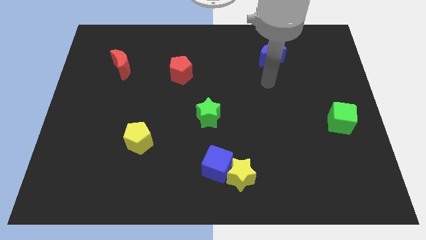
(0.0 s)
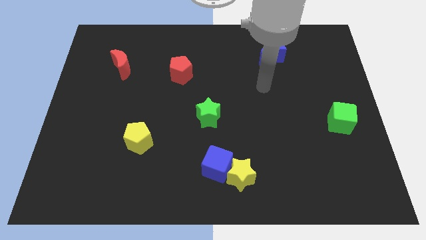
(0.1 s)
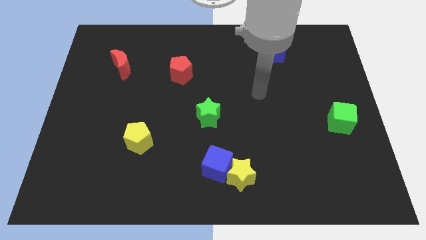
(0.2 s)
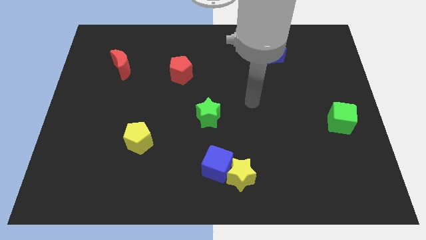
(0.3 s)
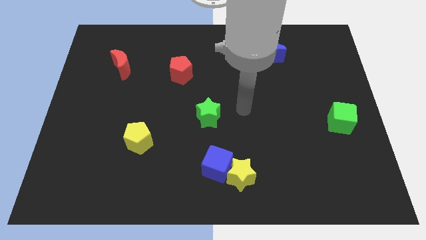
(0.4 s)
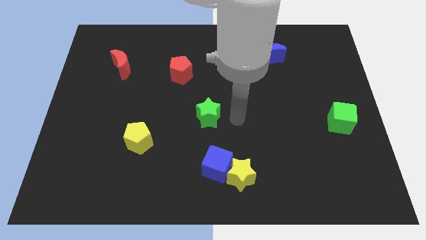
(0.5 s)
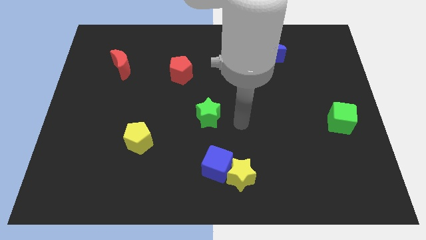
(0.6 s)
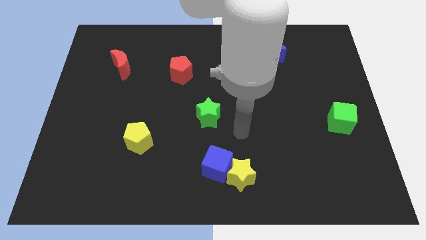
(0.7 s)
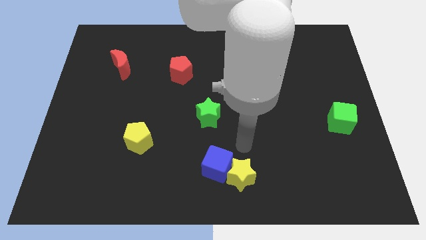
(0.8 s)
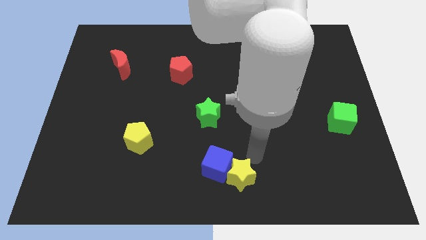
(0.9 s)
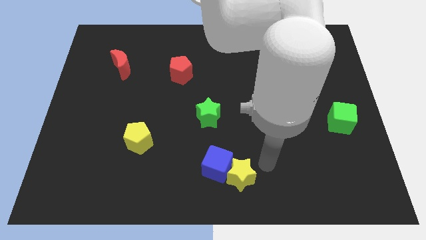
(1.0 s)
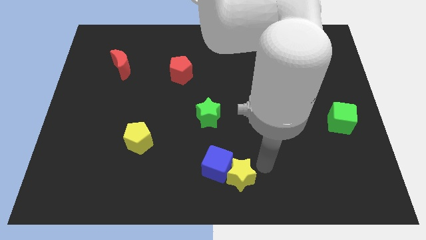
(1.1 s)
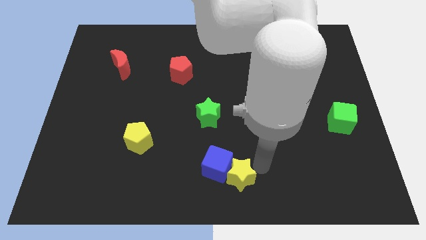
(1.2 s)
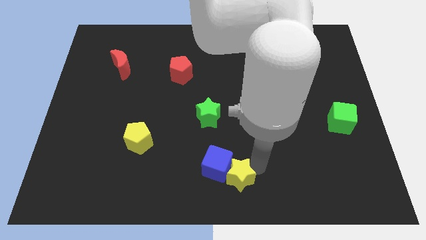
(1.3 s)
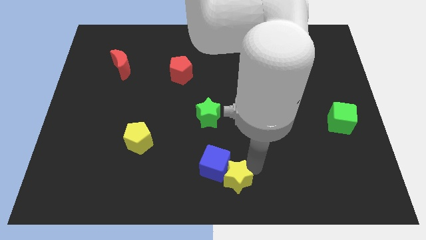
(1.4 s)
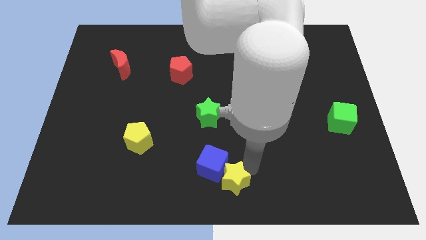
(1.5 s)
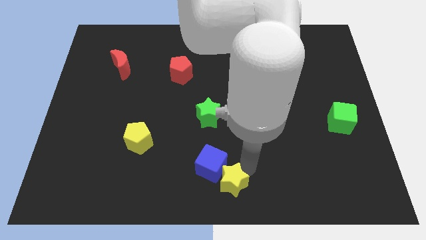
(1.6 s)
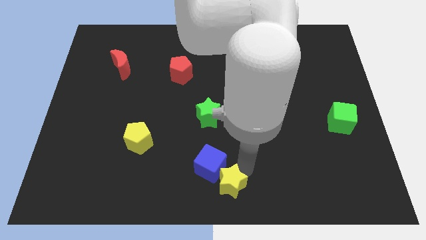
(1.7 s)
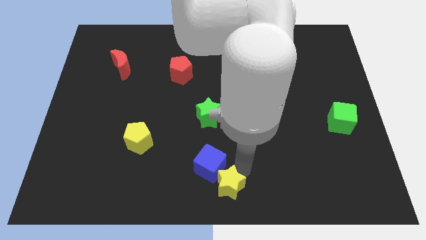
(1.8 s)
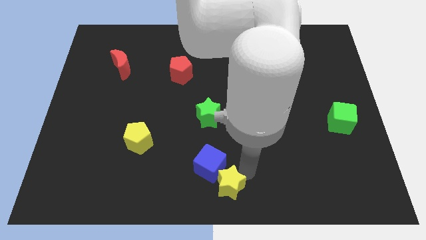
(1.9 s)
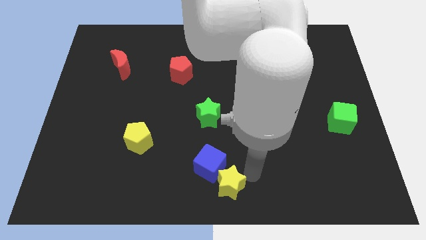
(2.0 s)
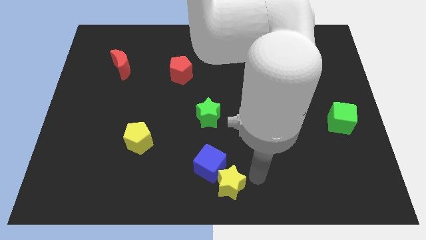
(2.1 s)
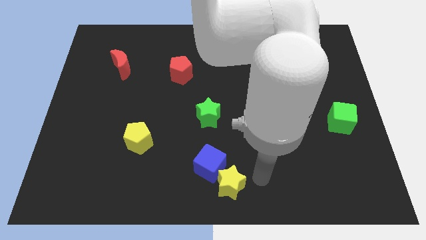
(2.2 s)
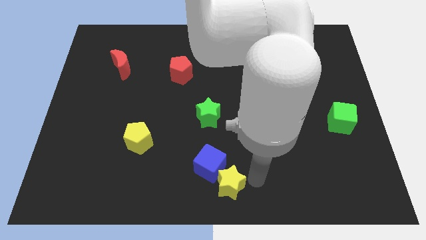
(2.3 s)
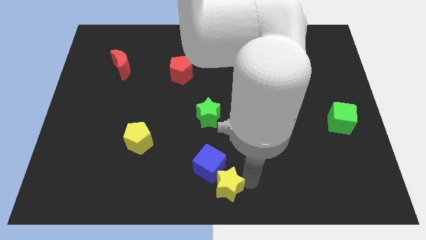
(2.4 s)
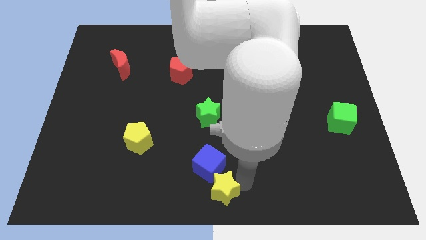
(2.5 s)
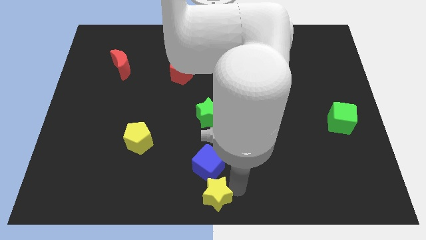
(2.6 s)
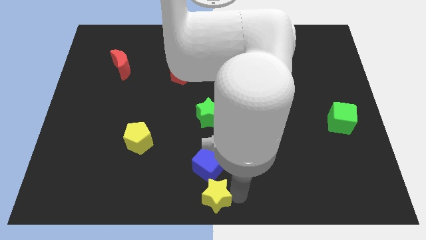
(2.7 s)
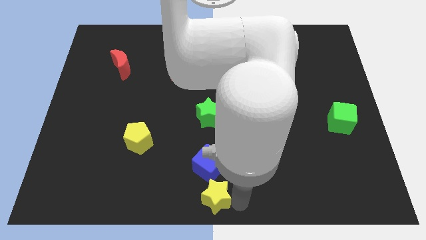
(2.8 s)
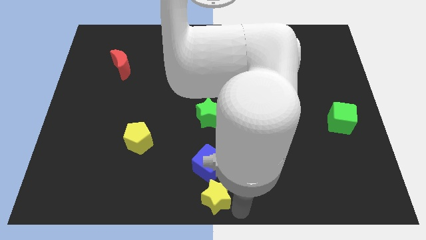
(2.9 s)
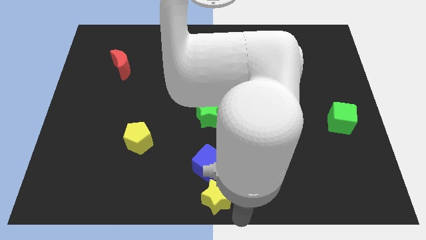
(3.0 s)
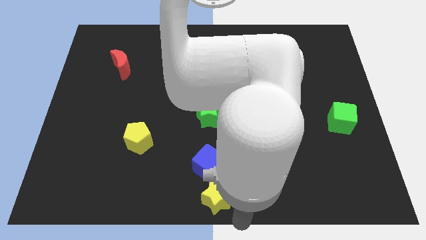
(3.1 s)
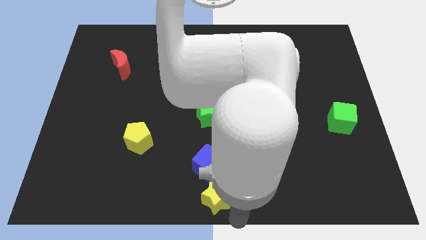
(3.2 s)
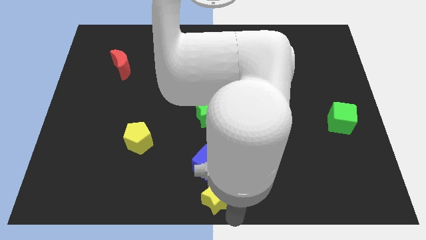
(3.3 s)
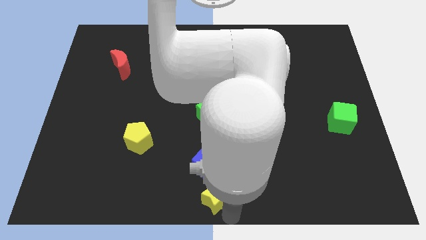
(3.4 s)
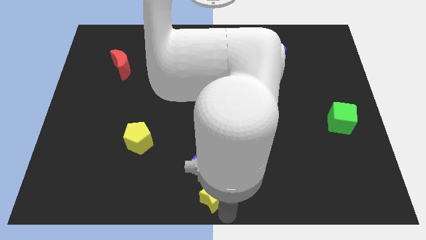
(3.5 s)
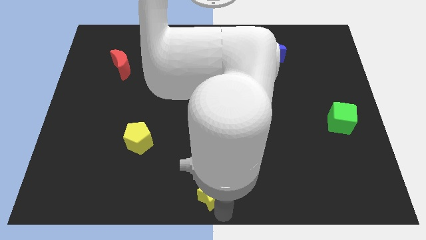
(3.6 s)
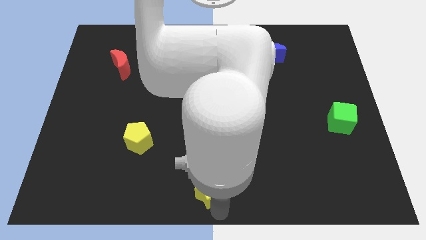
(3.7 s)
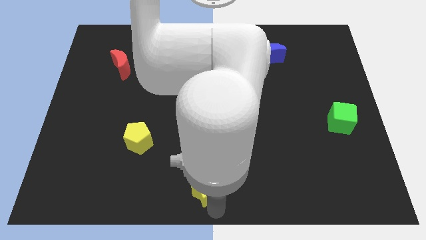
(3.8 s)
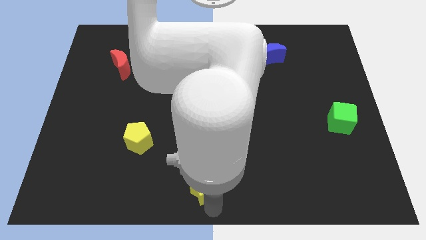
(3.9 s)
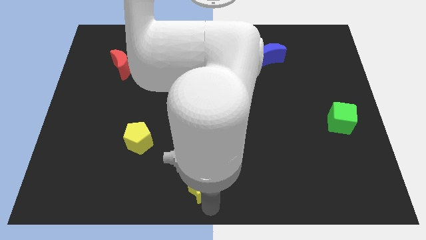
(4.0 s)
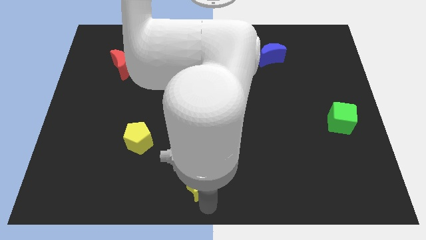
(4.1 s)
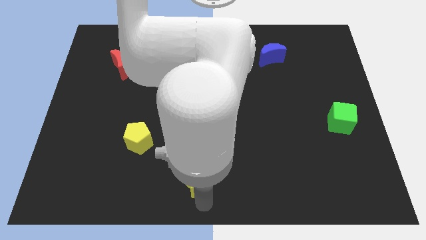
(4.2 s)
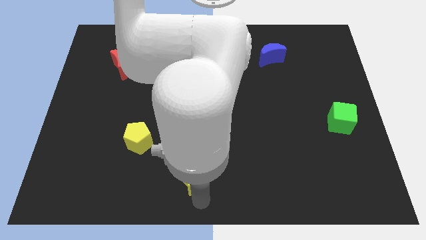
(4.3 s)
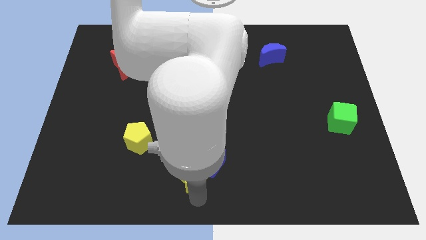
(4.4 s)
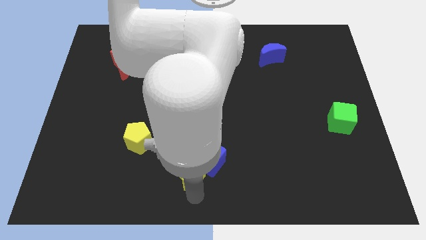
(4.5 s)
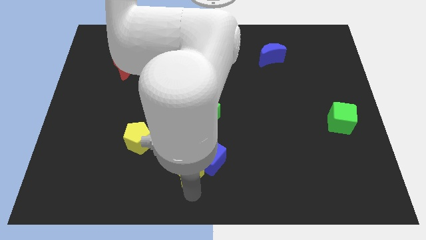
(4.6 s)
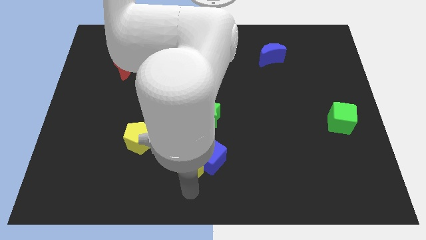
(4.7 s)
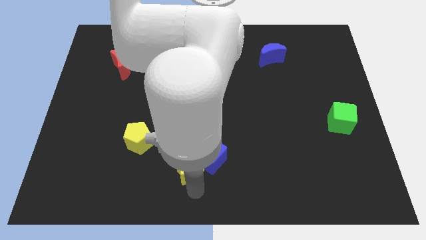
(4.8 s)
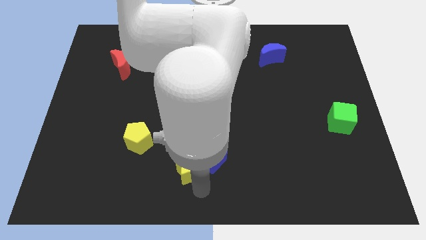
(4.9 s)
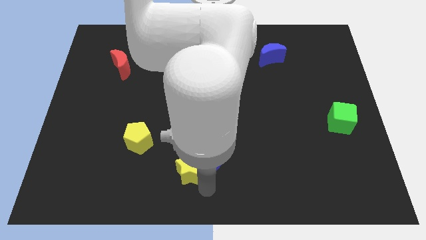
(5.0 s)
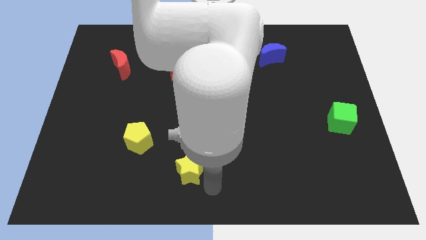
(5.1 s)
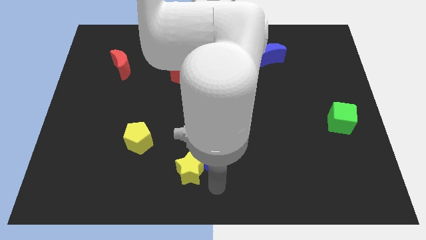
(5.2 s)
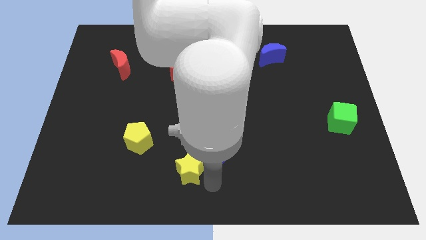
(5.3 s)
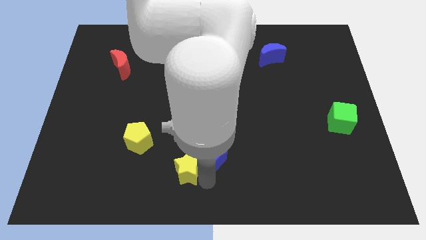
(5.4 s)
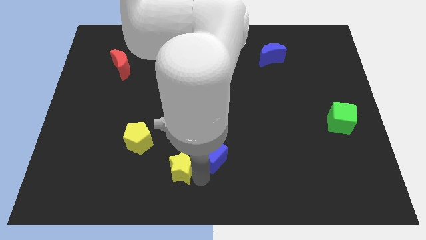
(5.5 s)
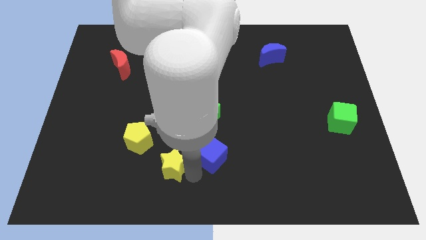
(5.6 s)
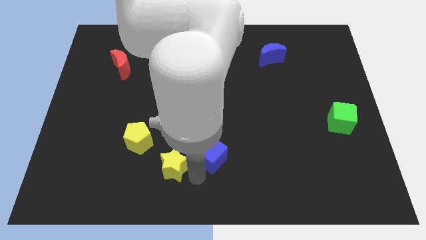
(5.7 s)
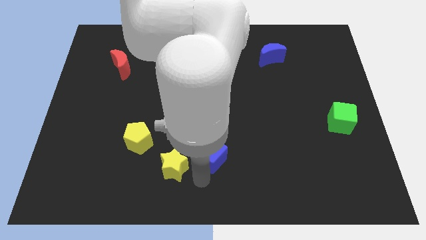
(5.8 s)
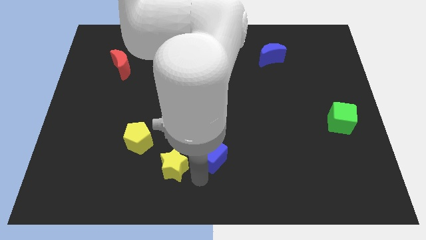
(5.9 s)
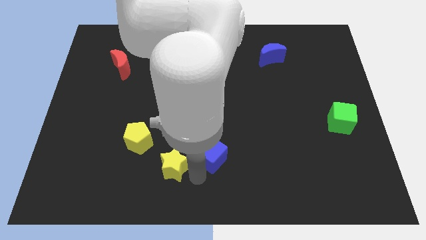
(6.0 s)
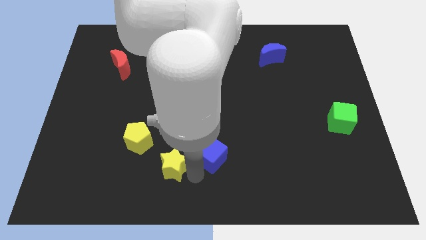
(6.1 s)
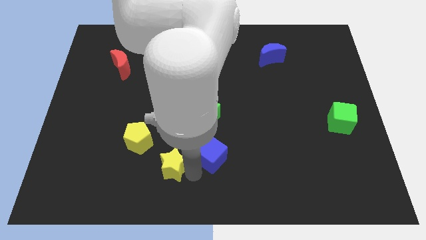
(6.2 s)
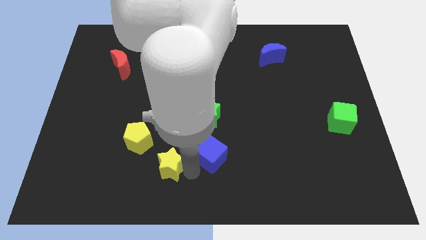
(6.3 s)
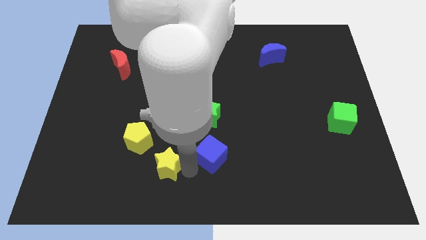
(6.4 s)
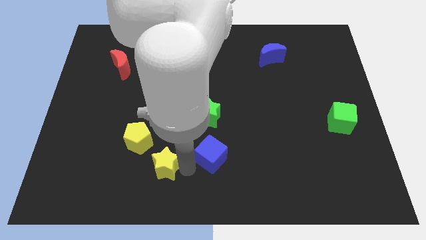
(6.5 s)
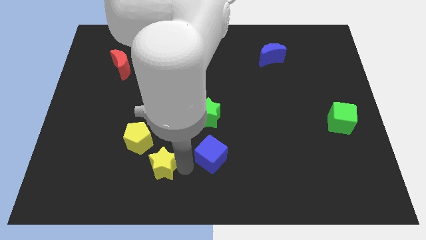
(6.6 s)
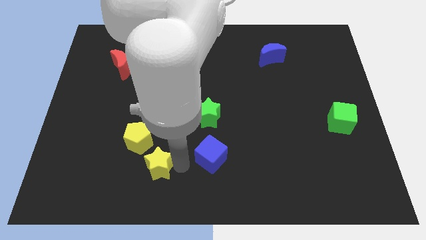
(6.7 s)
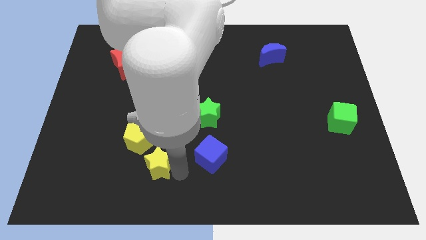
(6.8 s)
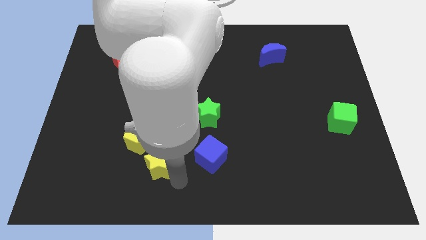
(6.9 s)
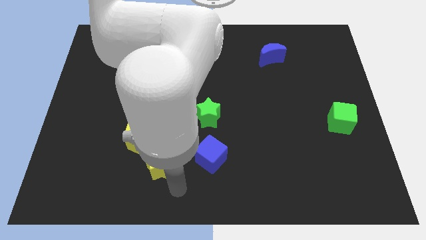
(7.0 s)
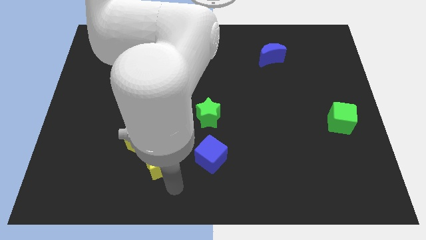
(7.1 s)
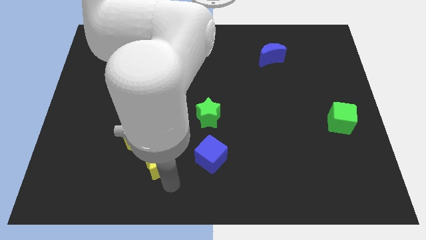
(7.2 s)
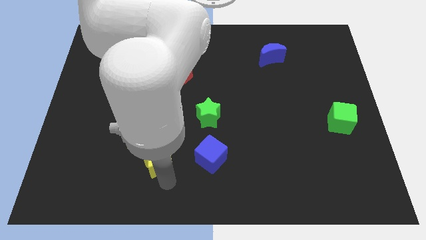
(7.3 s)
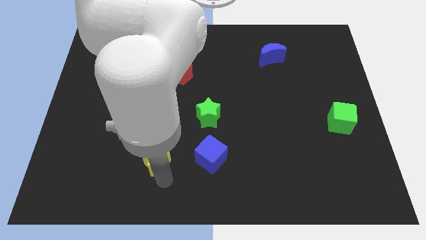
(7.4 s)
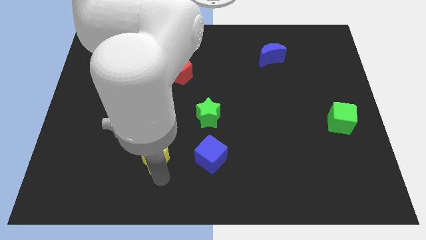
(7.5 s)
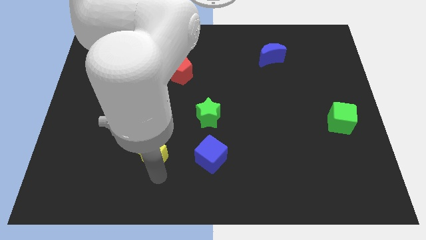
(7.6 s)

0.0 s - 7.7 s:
slide the yellow star to the yellow pentagon
